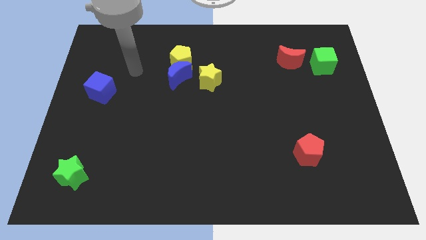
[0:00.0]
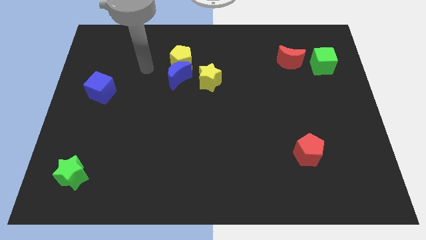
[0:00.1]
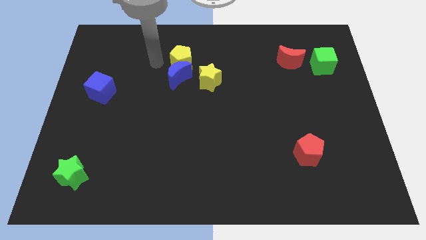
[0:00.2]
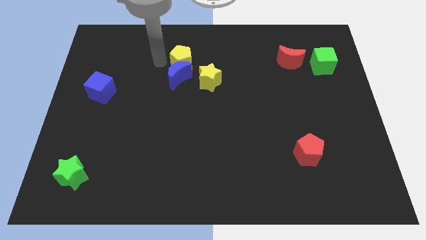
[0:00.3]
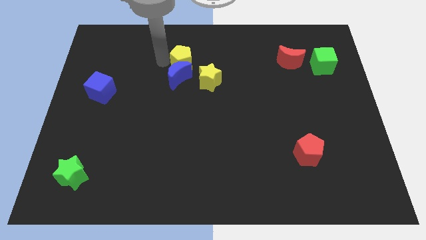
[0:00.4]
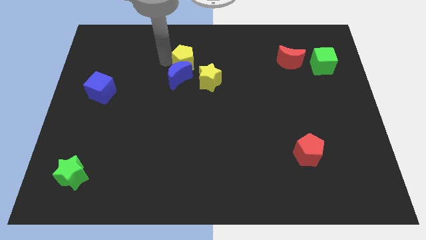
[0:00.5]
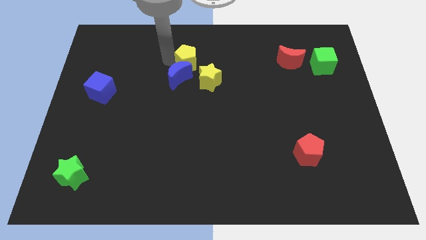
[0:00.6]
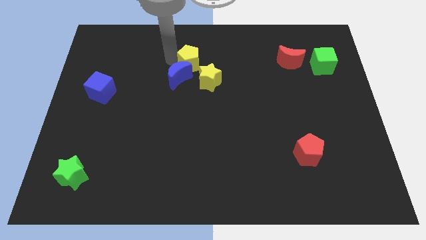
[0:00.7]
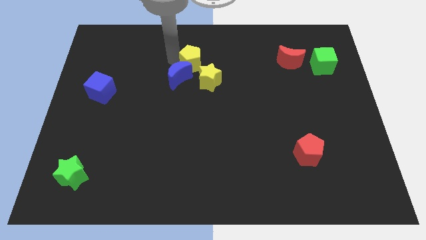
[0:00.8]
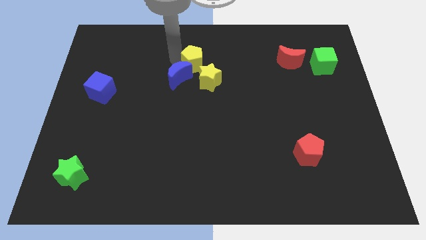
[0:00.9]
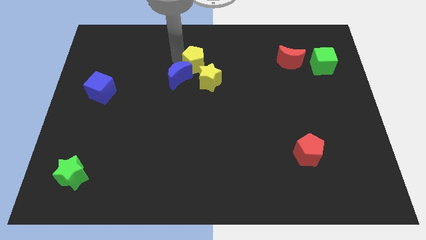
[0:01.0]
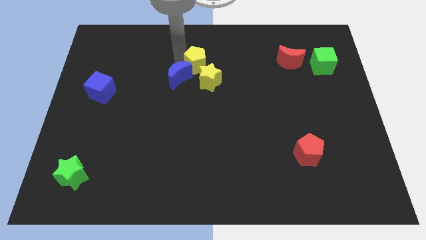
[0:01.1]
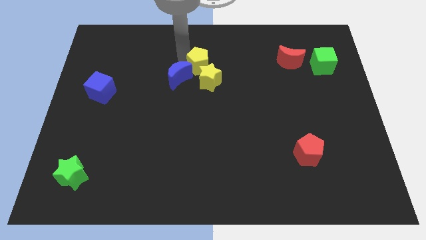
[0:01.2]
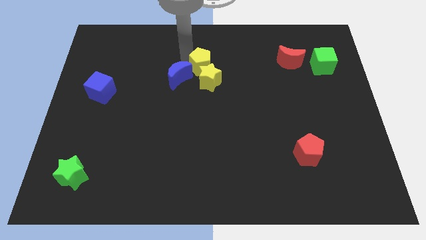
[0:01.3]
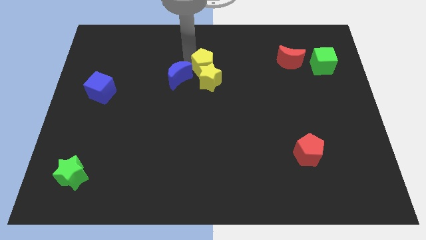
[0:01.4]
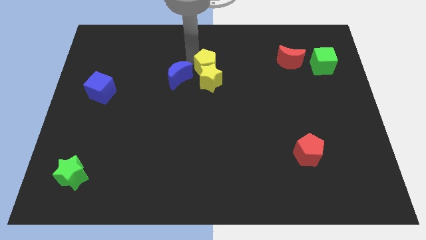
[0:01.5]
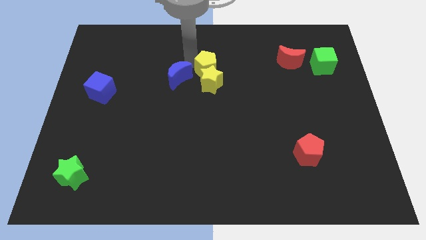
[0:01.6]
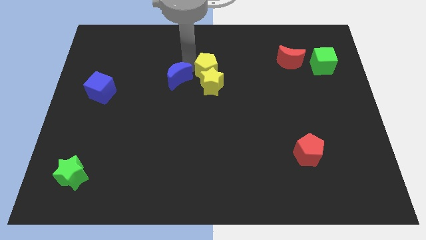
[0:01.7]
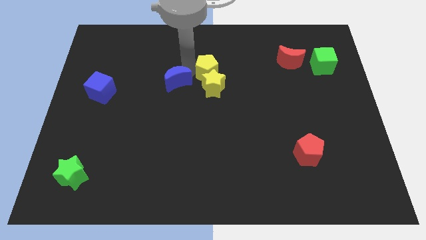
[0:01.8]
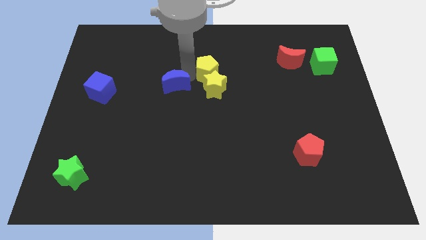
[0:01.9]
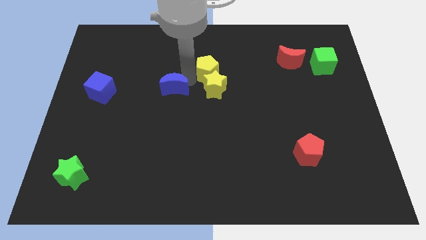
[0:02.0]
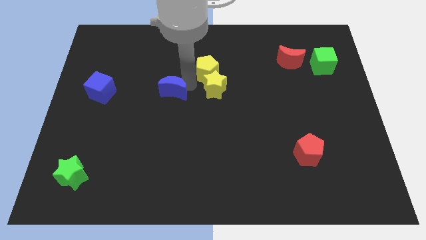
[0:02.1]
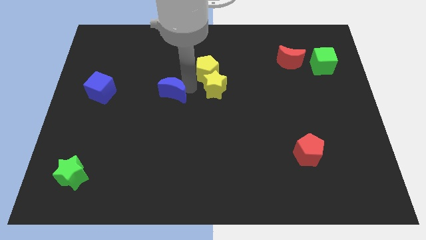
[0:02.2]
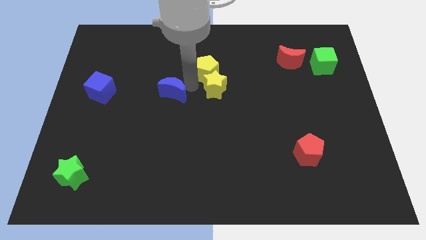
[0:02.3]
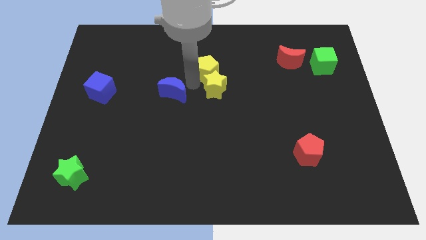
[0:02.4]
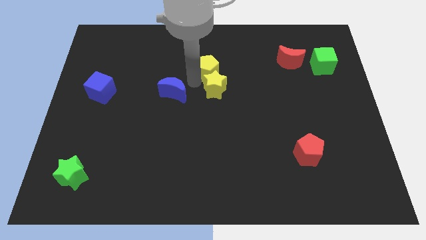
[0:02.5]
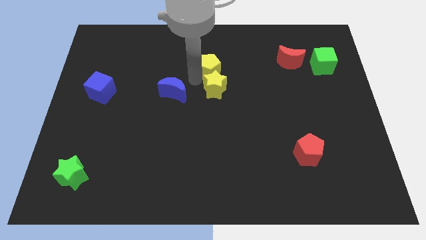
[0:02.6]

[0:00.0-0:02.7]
push the yellow pentagon right a bit

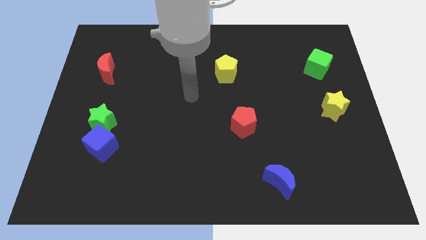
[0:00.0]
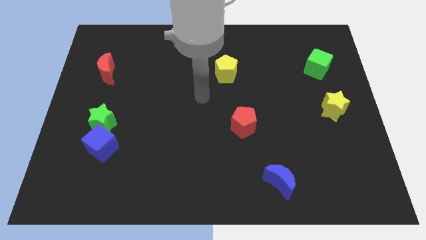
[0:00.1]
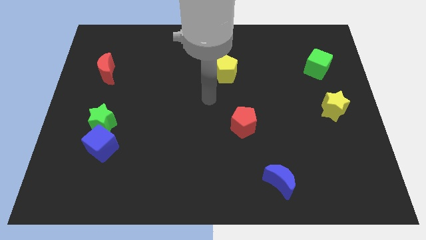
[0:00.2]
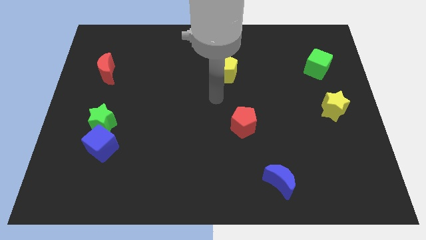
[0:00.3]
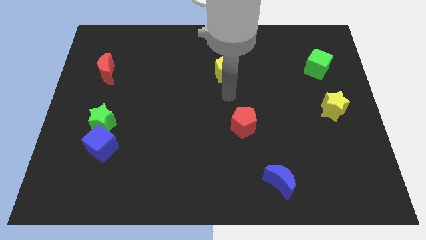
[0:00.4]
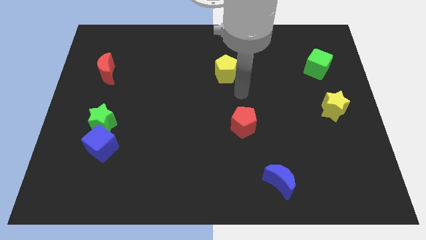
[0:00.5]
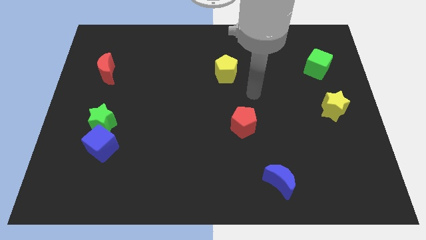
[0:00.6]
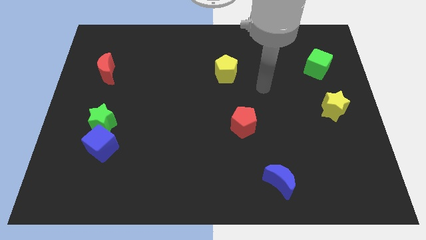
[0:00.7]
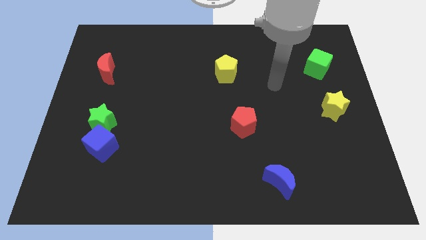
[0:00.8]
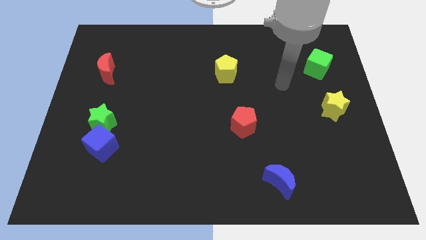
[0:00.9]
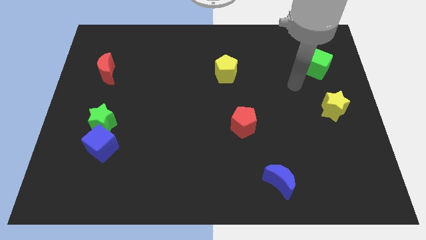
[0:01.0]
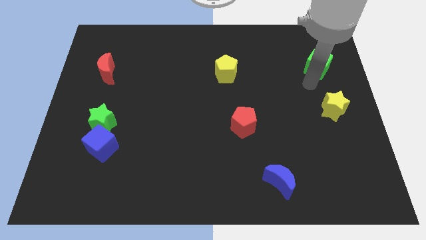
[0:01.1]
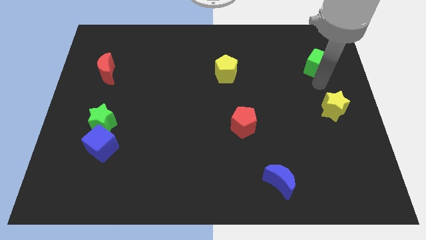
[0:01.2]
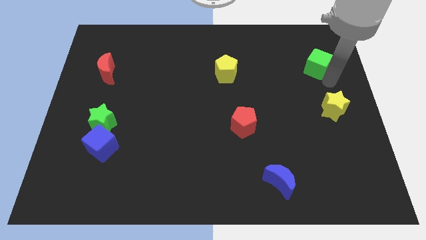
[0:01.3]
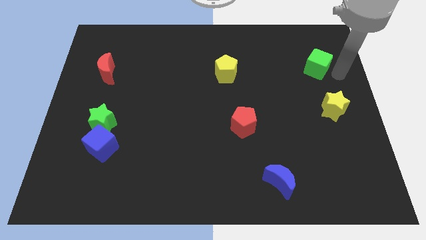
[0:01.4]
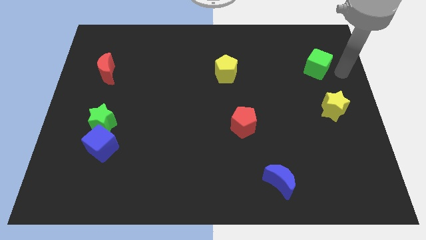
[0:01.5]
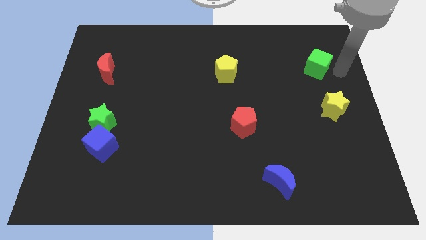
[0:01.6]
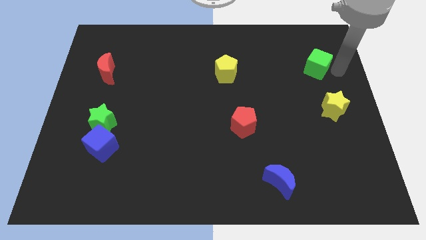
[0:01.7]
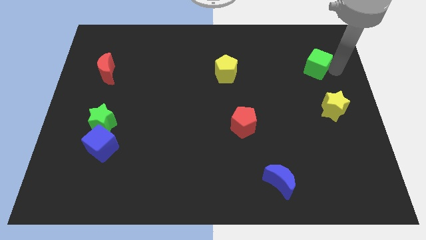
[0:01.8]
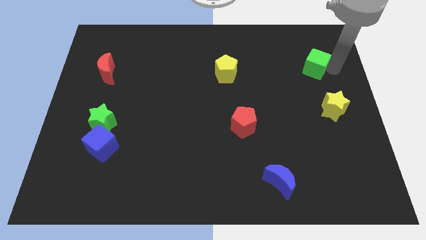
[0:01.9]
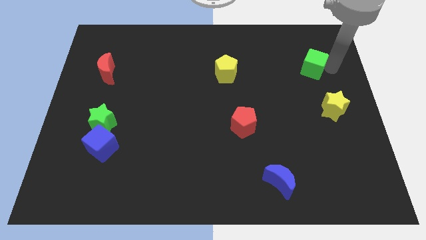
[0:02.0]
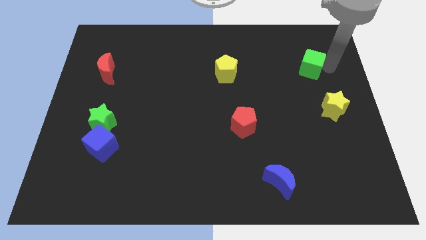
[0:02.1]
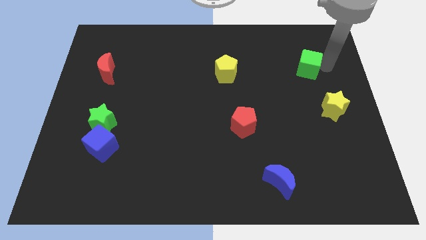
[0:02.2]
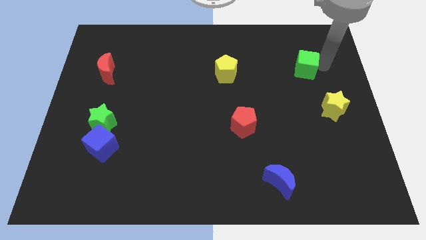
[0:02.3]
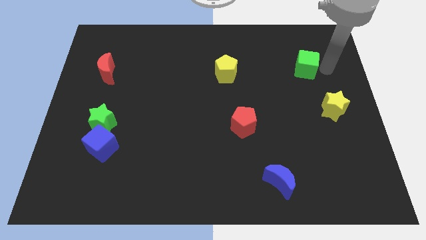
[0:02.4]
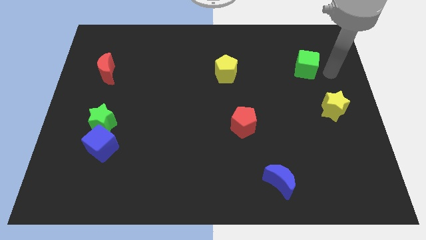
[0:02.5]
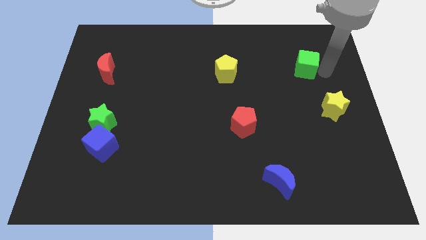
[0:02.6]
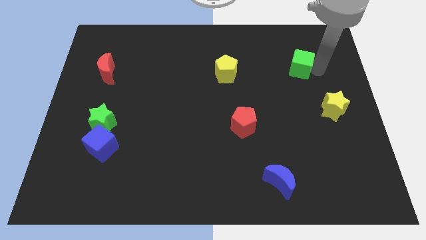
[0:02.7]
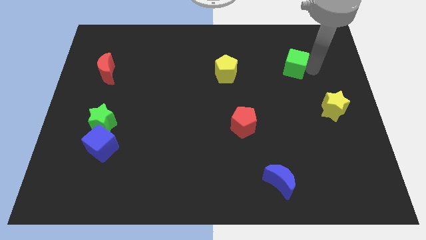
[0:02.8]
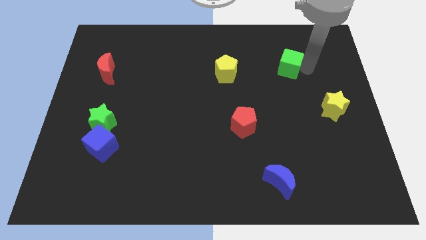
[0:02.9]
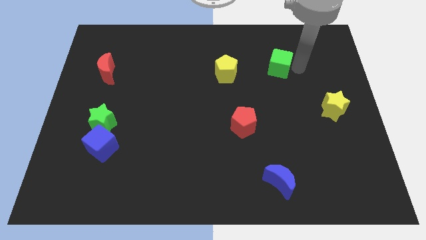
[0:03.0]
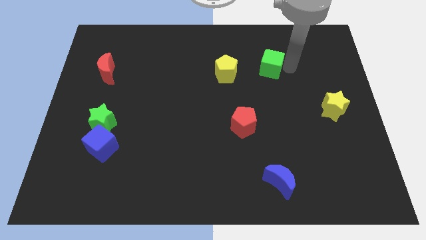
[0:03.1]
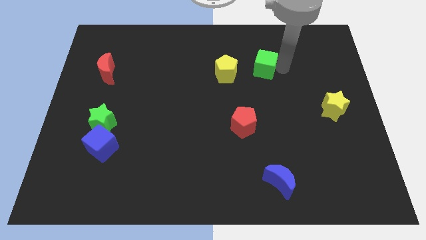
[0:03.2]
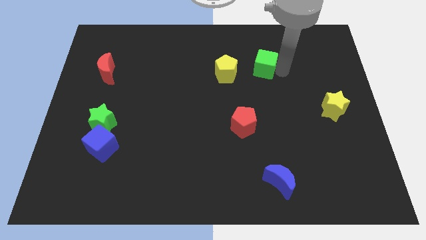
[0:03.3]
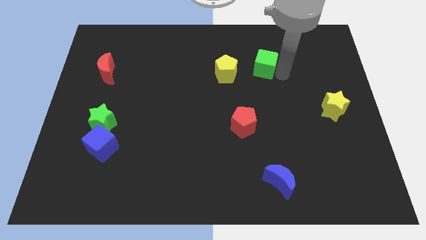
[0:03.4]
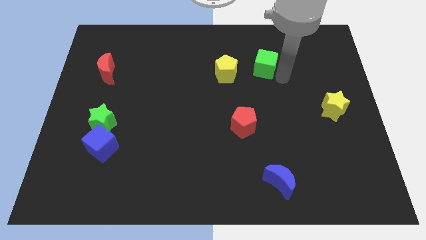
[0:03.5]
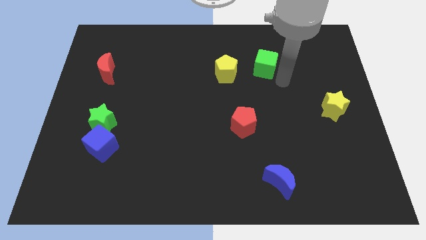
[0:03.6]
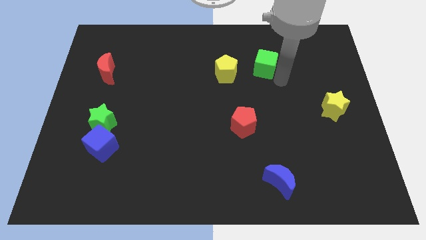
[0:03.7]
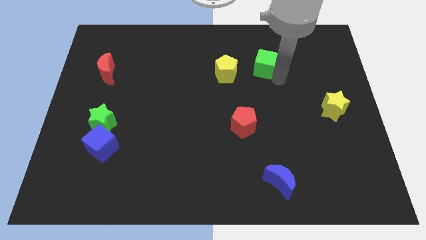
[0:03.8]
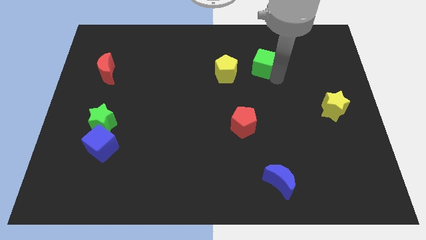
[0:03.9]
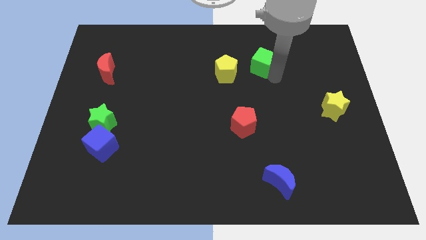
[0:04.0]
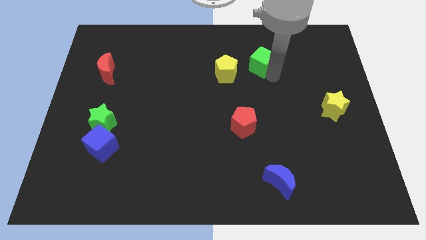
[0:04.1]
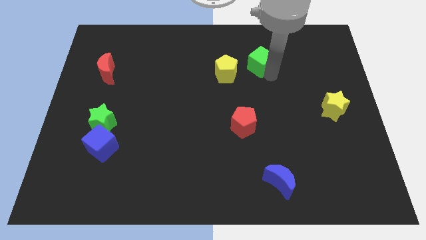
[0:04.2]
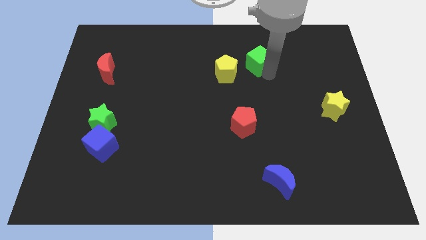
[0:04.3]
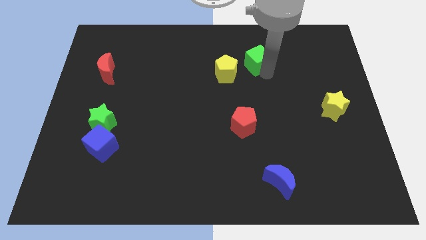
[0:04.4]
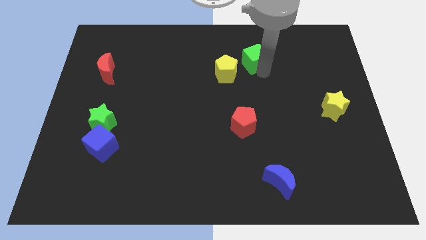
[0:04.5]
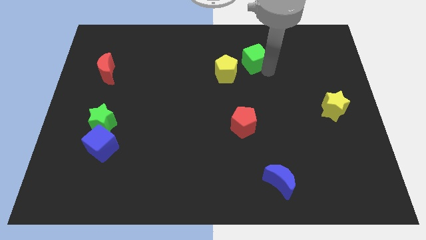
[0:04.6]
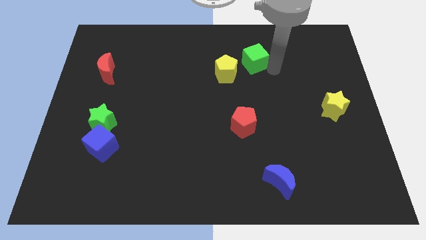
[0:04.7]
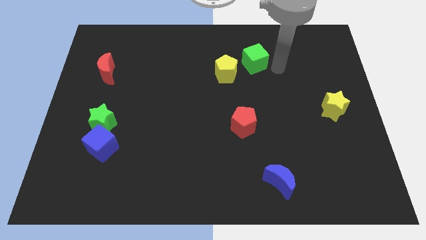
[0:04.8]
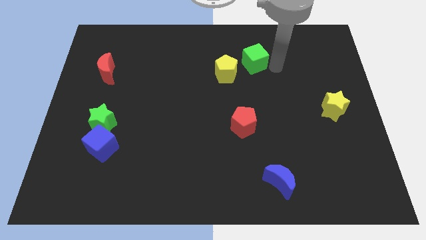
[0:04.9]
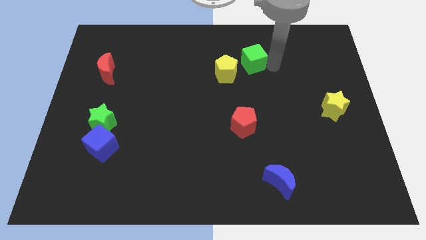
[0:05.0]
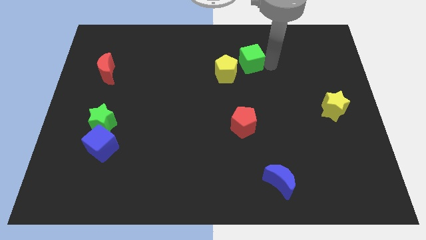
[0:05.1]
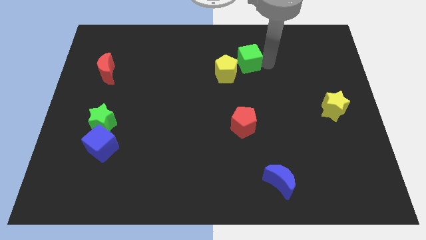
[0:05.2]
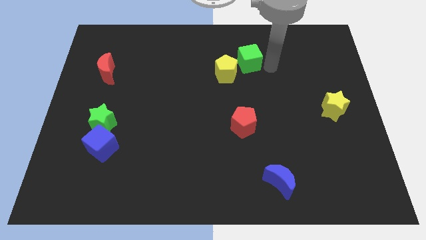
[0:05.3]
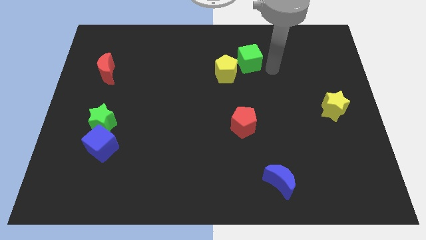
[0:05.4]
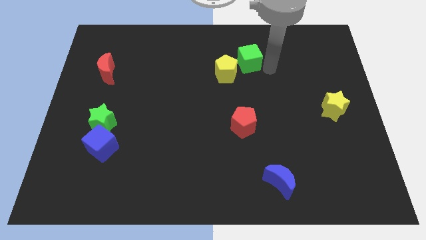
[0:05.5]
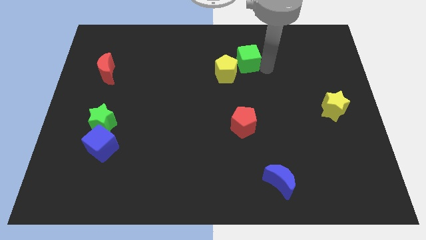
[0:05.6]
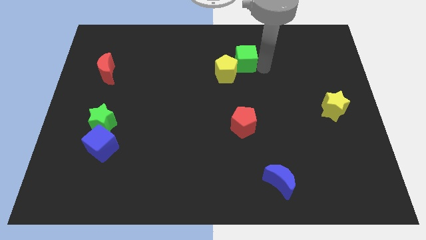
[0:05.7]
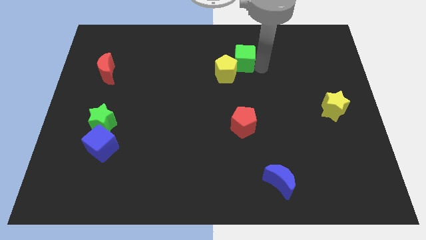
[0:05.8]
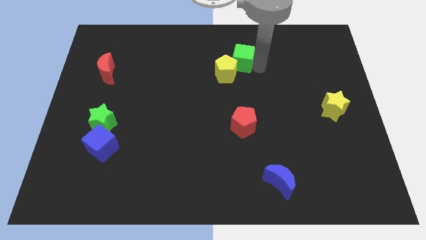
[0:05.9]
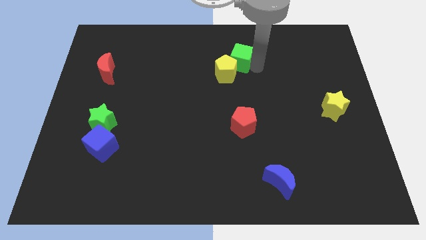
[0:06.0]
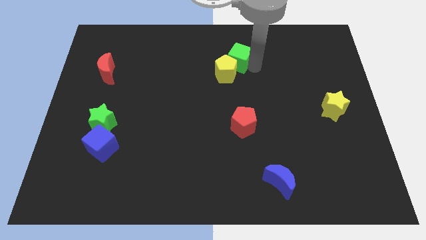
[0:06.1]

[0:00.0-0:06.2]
push the green cube to the left
